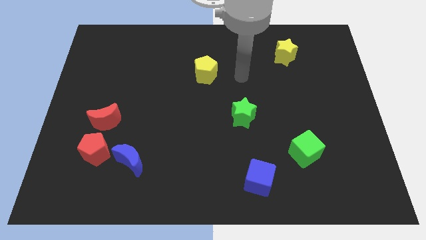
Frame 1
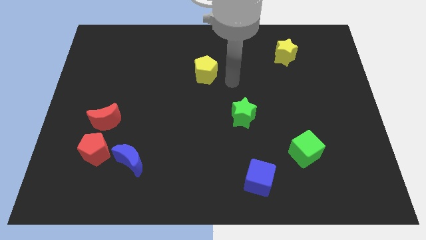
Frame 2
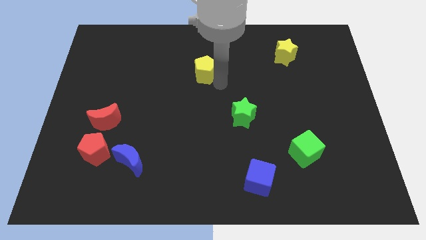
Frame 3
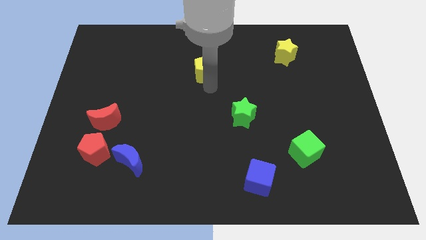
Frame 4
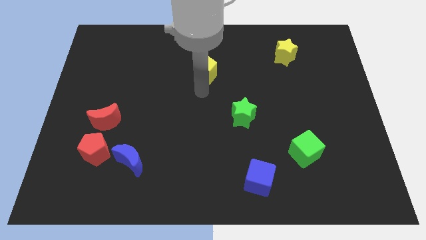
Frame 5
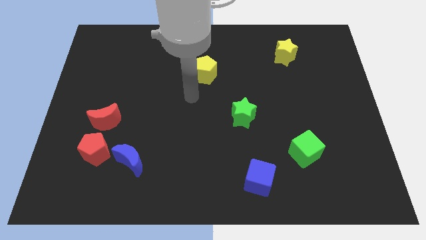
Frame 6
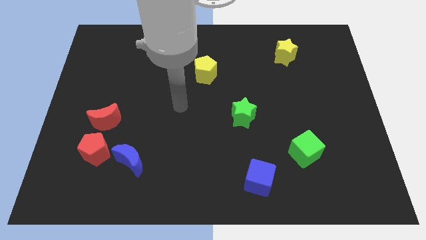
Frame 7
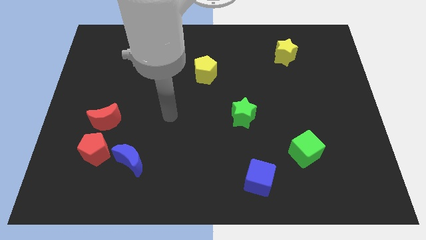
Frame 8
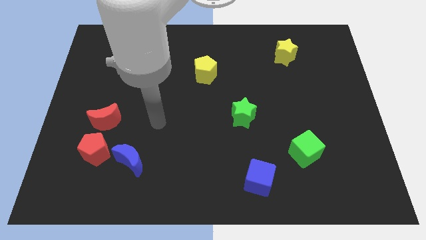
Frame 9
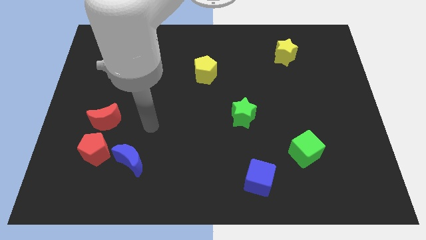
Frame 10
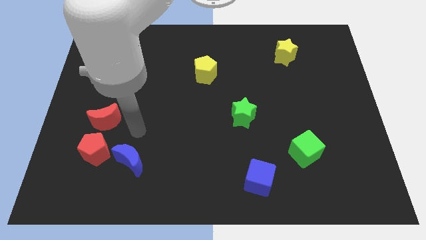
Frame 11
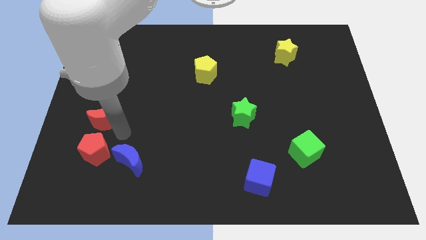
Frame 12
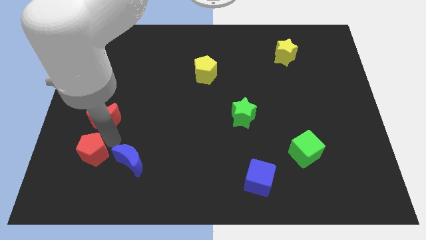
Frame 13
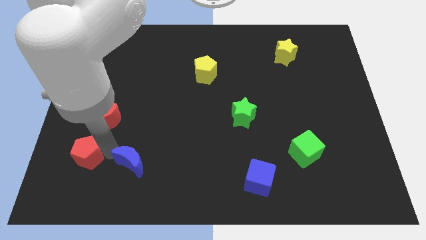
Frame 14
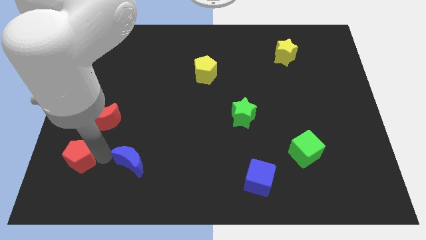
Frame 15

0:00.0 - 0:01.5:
pull the blue moon apart from the red pentagon

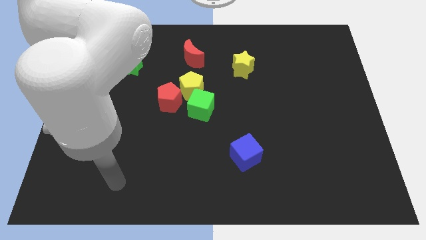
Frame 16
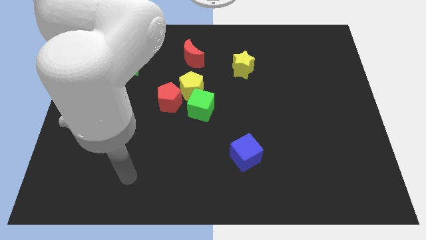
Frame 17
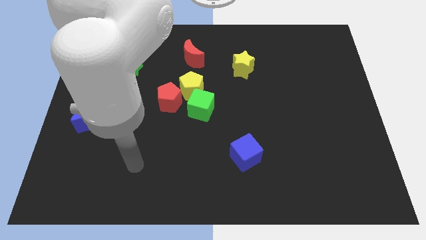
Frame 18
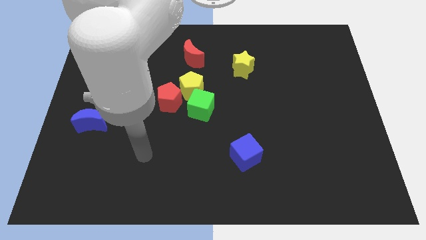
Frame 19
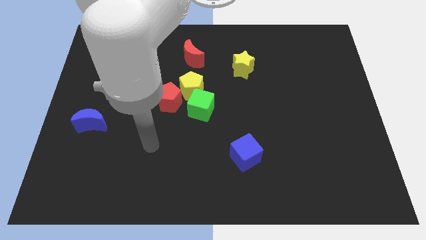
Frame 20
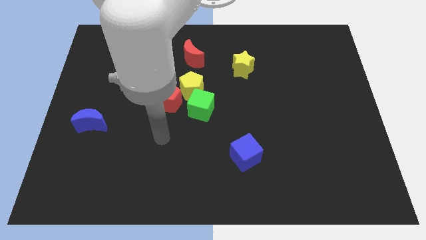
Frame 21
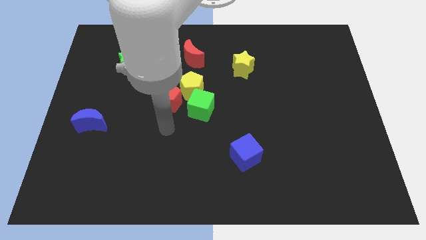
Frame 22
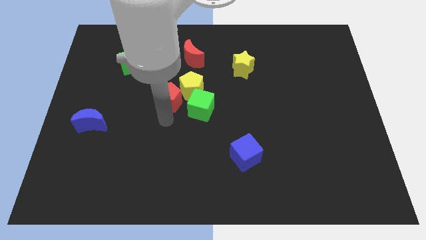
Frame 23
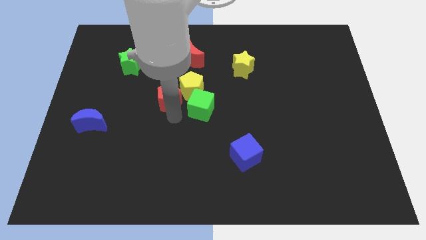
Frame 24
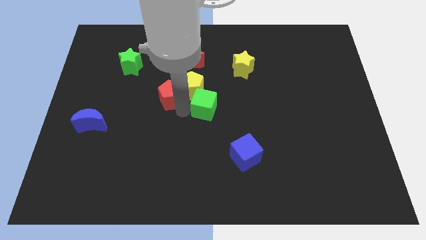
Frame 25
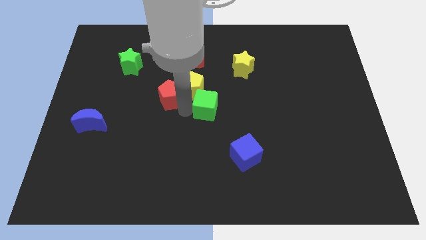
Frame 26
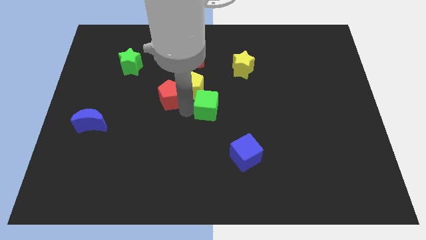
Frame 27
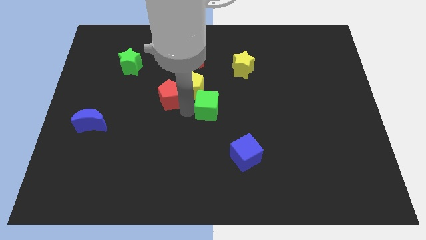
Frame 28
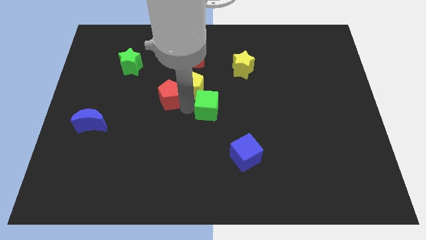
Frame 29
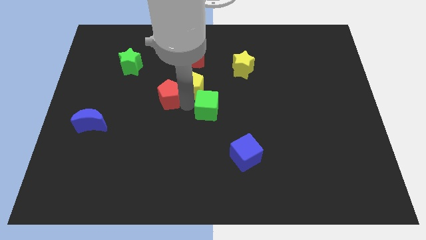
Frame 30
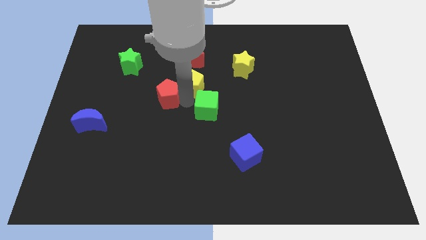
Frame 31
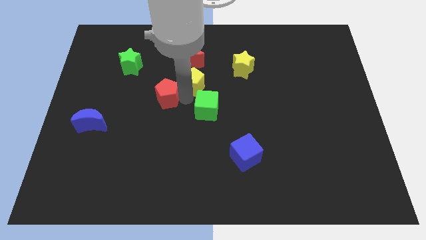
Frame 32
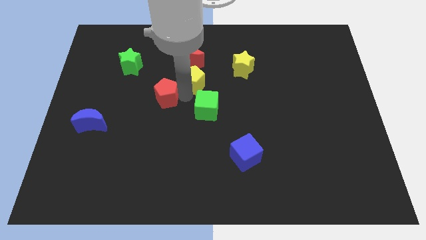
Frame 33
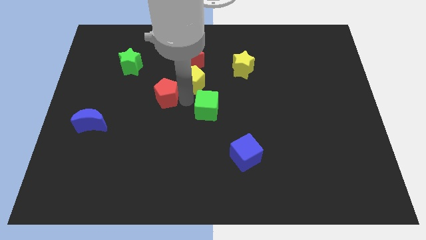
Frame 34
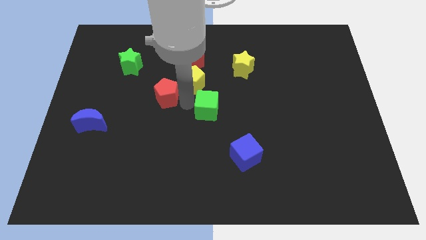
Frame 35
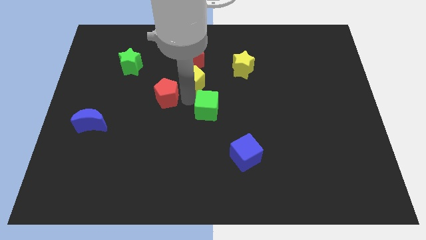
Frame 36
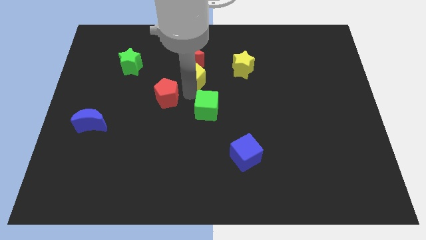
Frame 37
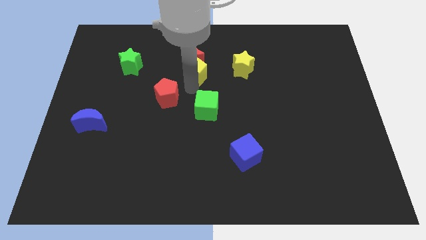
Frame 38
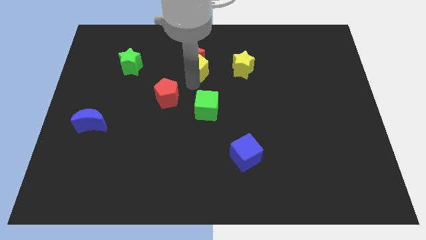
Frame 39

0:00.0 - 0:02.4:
separate the yellow pentagon from the green cube and red pentagon

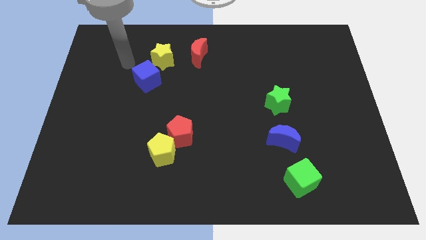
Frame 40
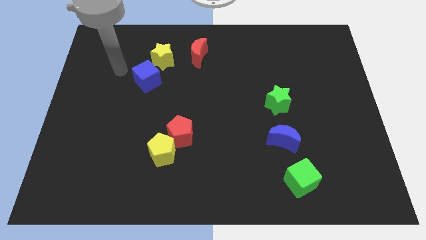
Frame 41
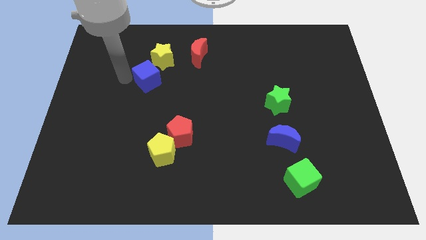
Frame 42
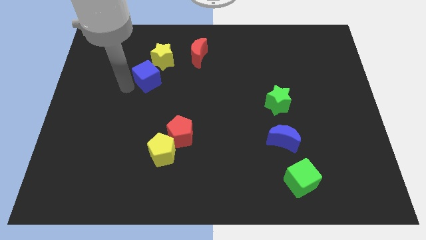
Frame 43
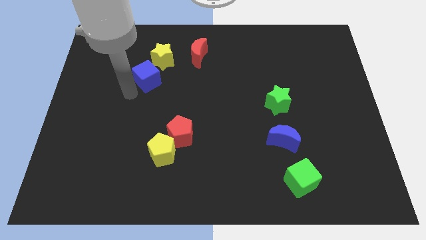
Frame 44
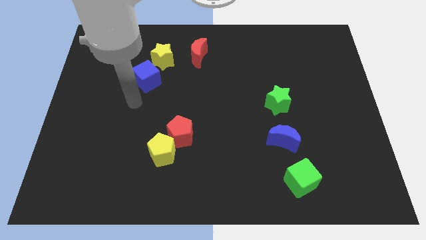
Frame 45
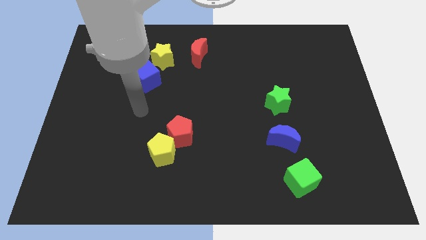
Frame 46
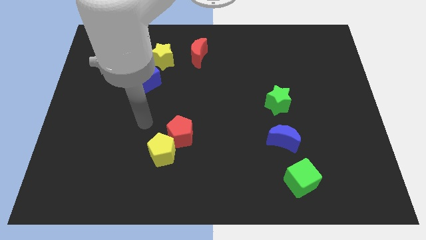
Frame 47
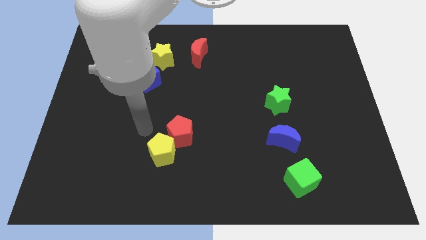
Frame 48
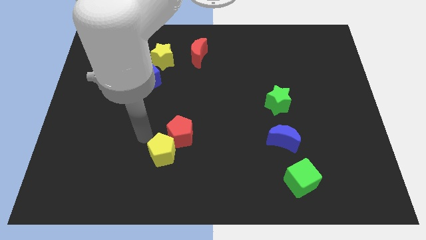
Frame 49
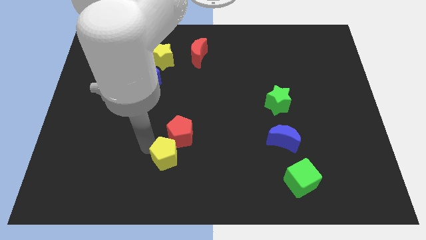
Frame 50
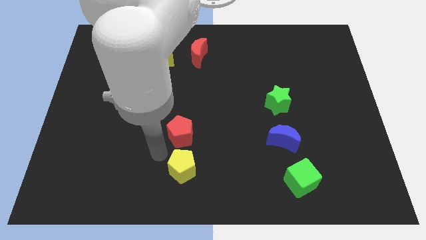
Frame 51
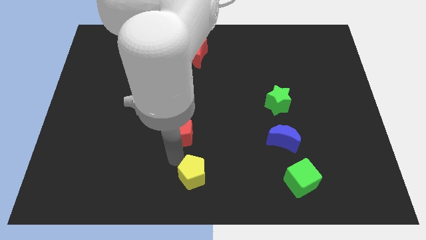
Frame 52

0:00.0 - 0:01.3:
separate the red pentagon from the yellow pentagon

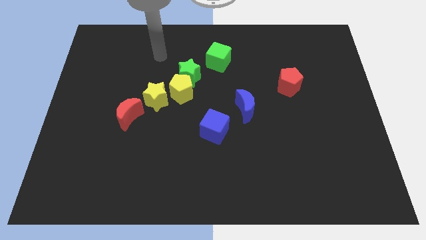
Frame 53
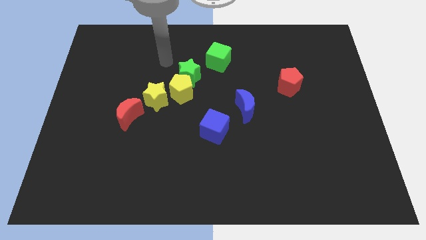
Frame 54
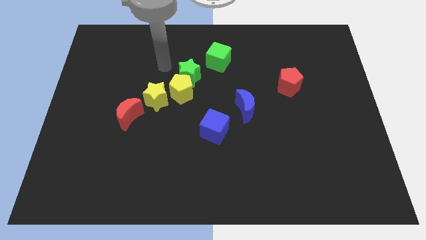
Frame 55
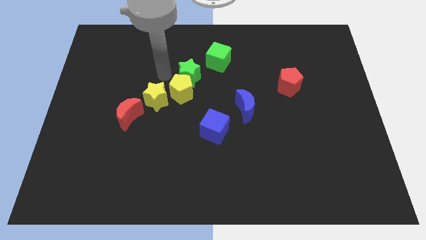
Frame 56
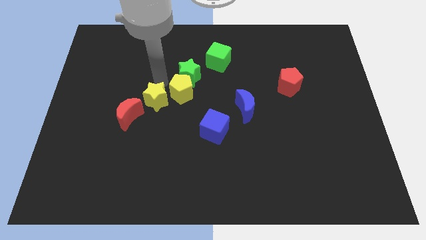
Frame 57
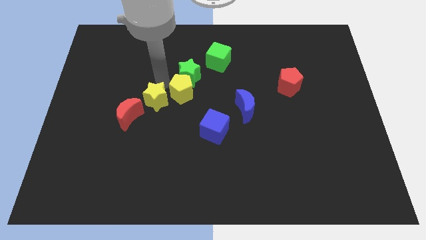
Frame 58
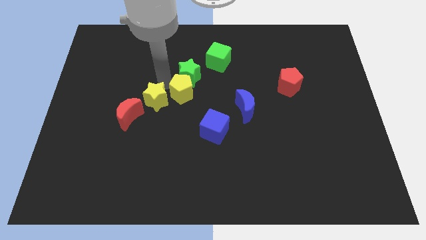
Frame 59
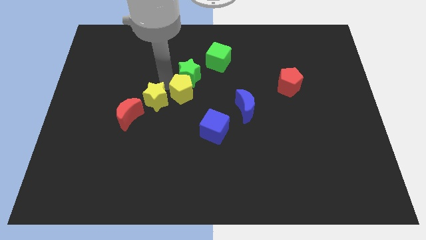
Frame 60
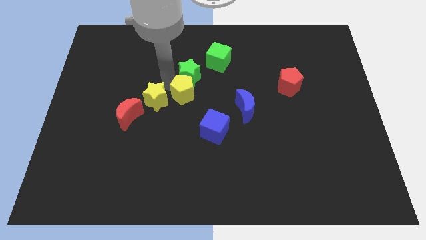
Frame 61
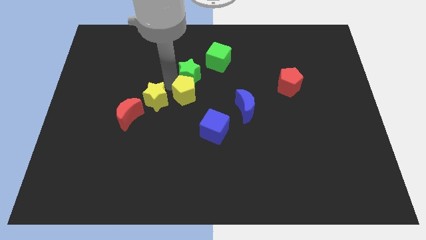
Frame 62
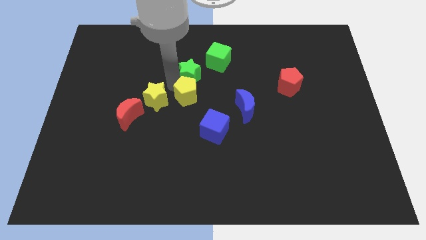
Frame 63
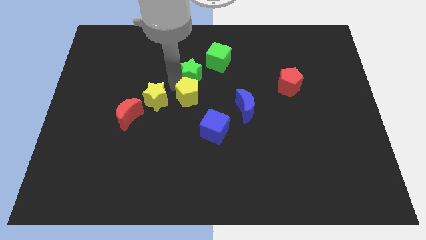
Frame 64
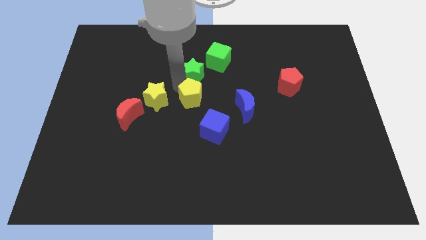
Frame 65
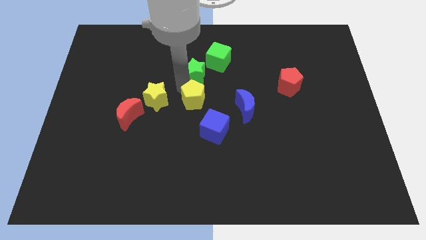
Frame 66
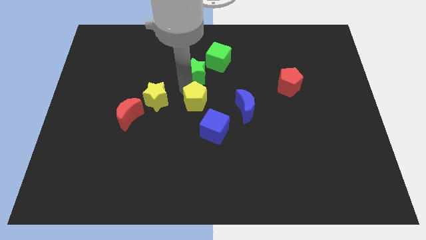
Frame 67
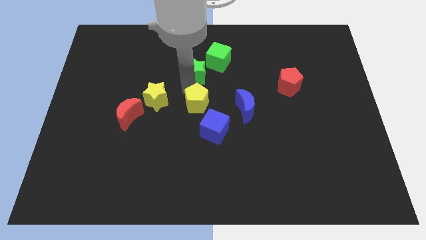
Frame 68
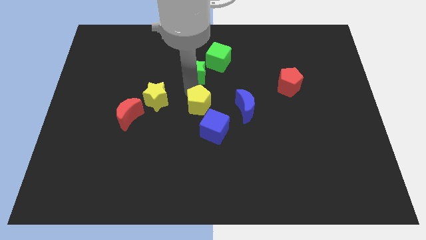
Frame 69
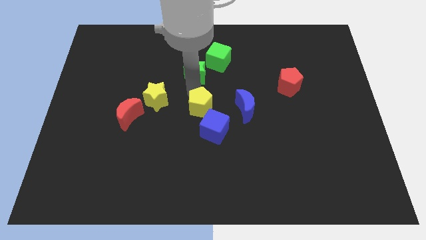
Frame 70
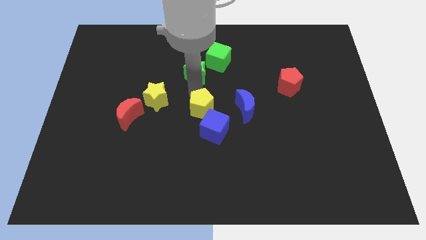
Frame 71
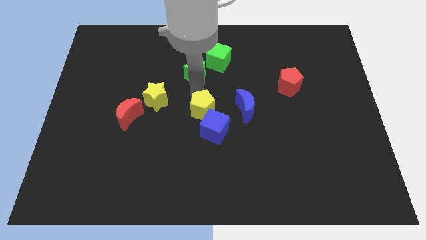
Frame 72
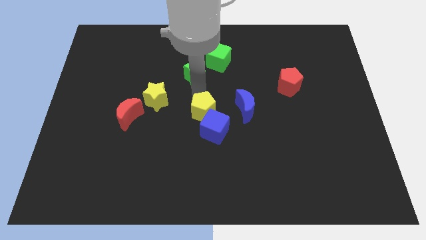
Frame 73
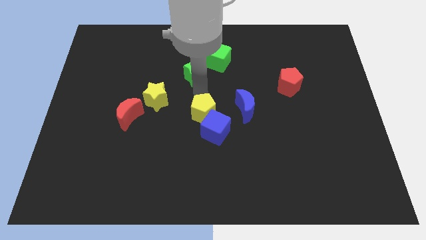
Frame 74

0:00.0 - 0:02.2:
pull the yellow pentagon apart from the green star and yellow star

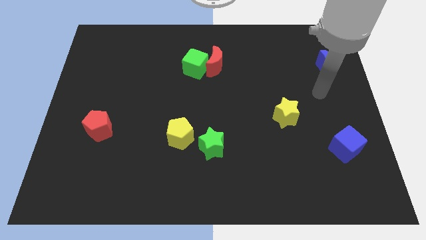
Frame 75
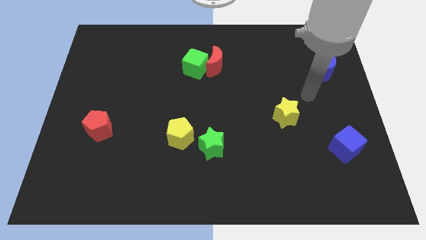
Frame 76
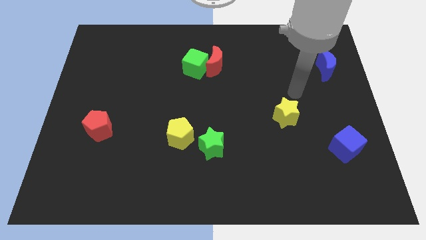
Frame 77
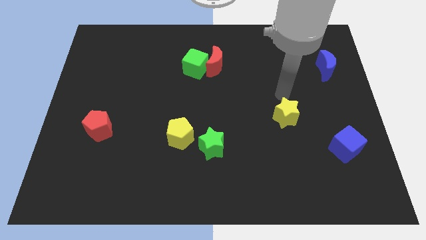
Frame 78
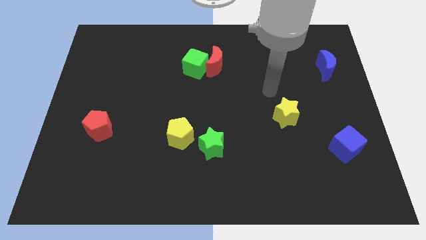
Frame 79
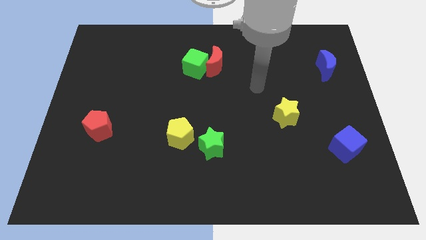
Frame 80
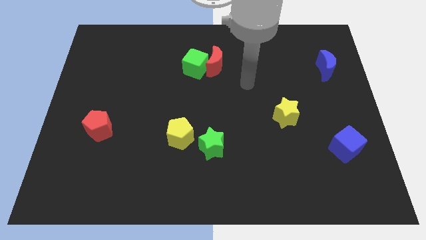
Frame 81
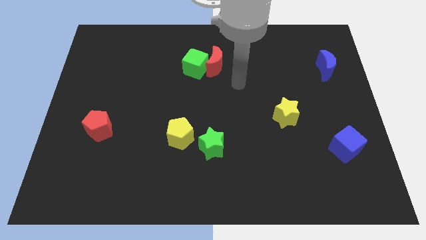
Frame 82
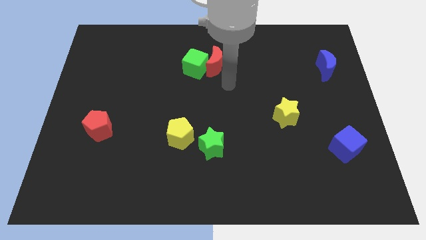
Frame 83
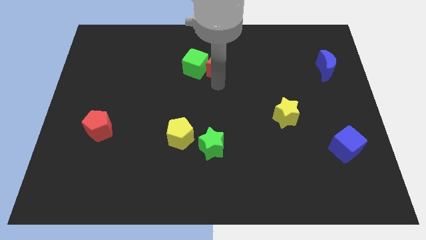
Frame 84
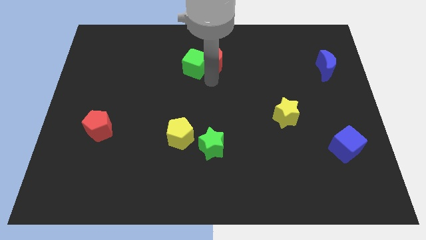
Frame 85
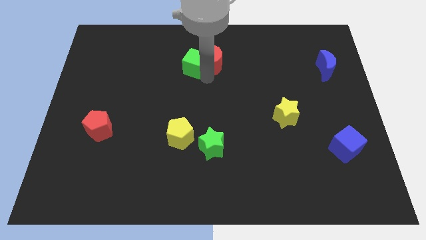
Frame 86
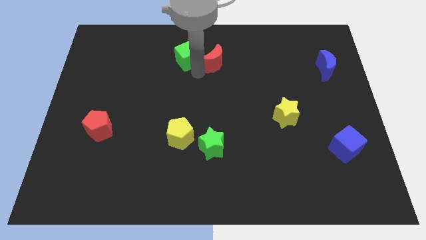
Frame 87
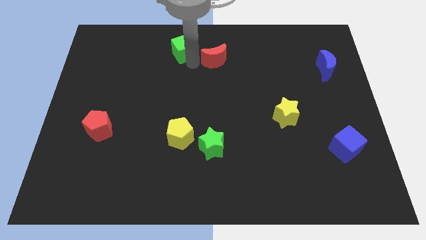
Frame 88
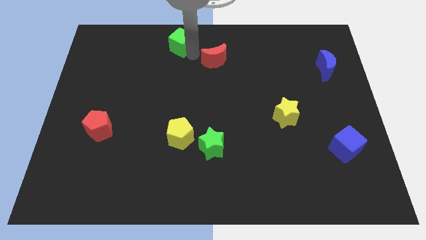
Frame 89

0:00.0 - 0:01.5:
separate the red moon from the green cube

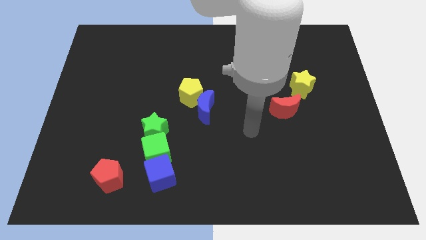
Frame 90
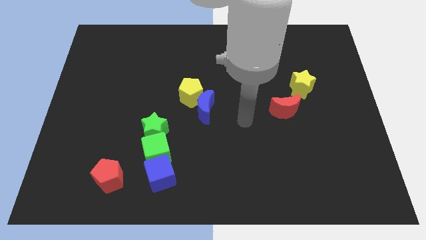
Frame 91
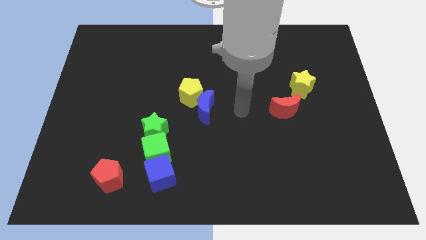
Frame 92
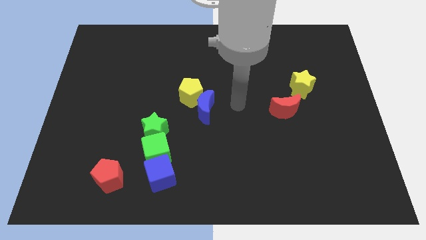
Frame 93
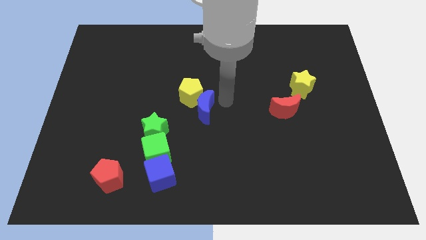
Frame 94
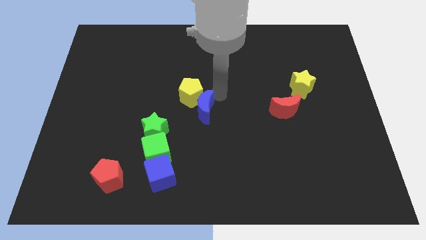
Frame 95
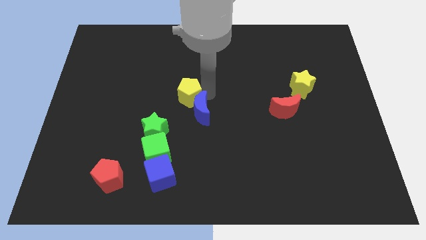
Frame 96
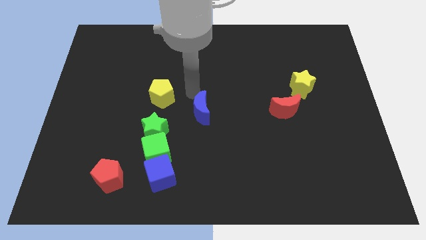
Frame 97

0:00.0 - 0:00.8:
move the blue moon away from the yellow pentagon
